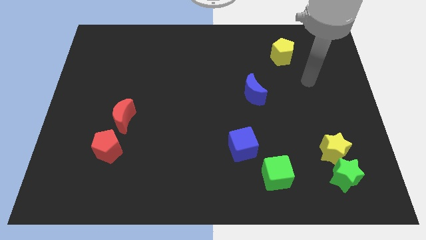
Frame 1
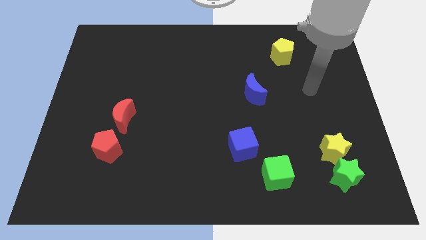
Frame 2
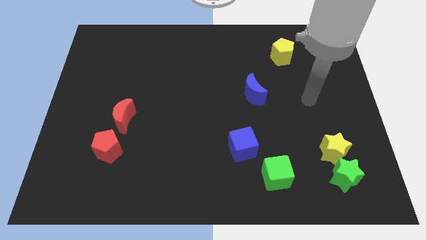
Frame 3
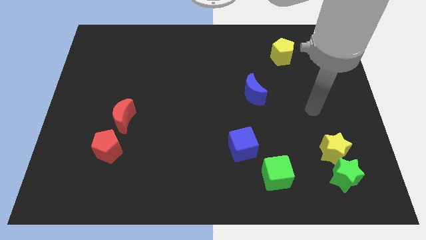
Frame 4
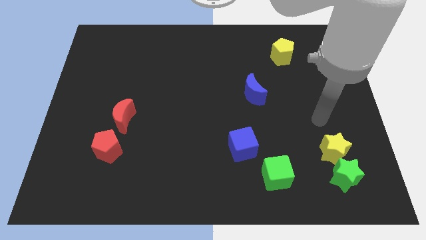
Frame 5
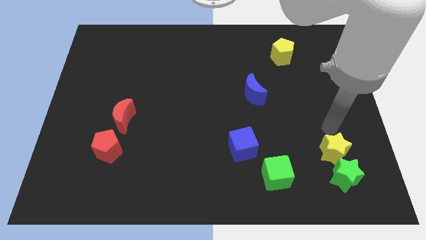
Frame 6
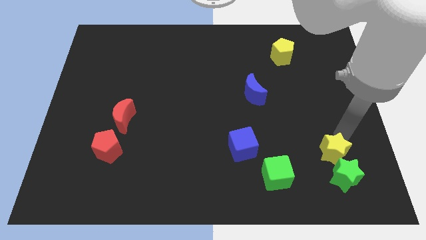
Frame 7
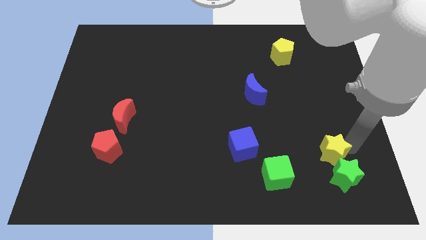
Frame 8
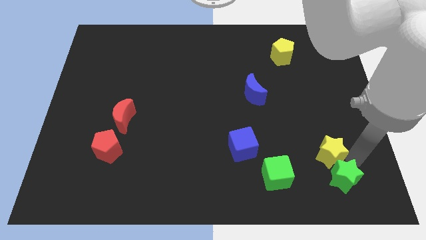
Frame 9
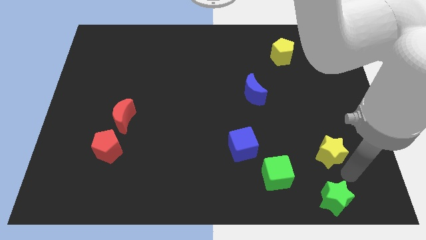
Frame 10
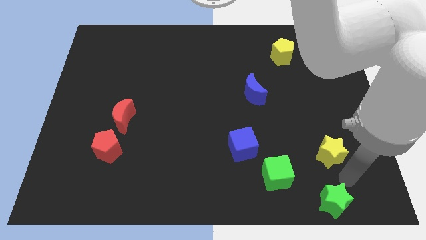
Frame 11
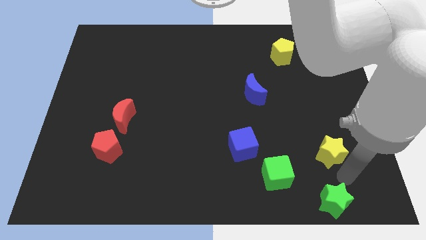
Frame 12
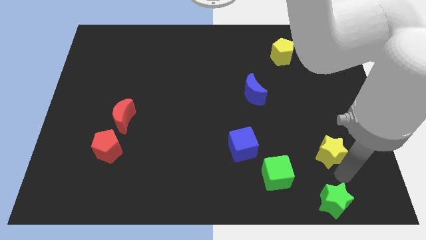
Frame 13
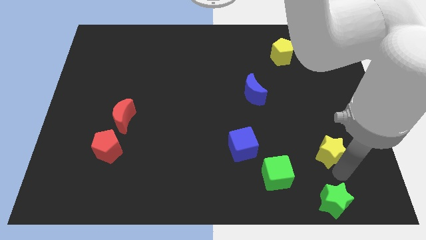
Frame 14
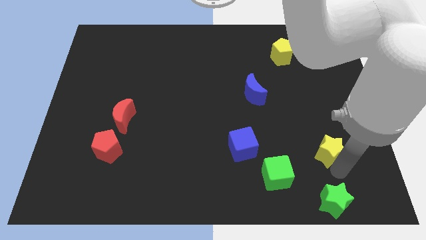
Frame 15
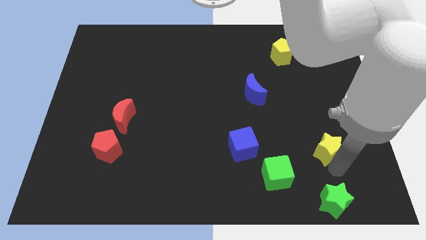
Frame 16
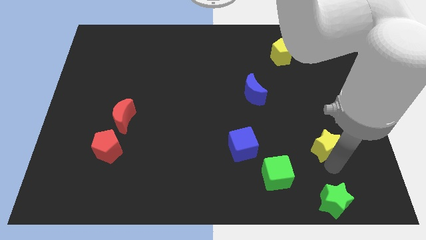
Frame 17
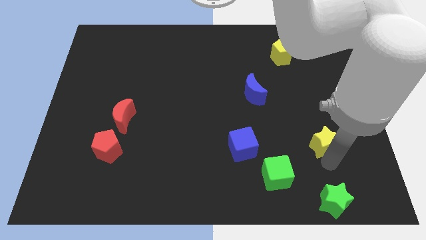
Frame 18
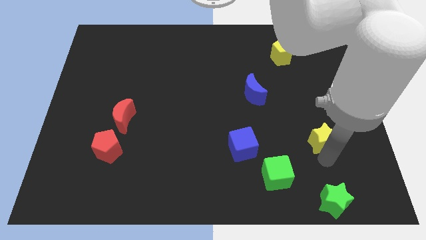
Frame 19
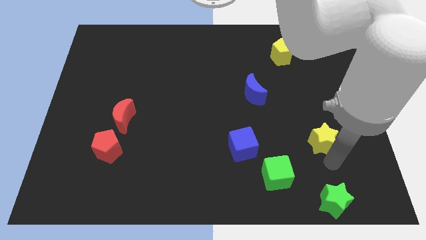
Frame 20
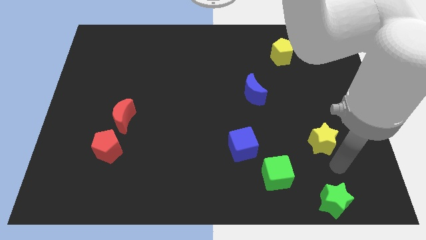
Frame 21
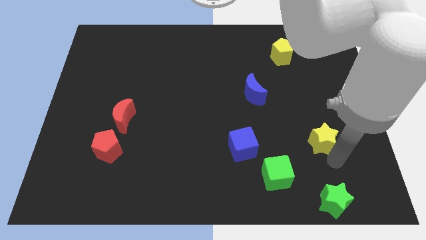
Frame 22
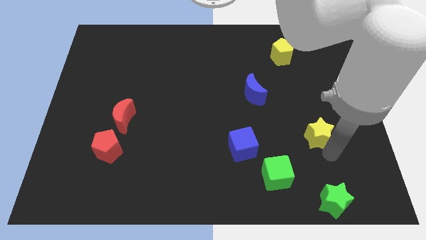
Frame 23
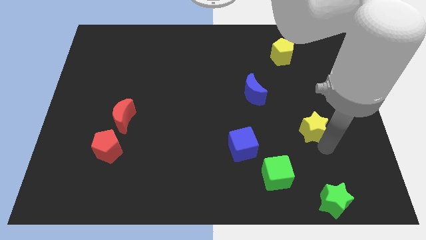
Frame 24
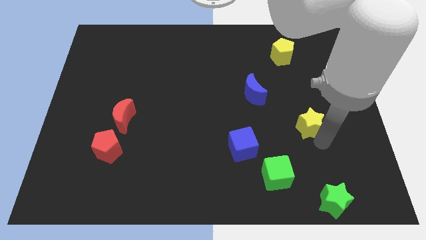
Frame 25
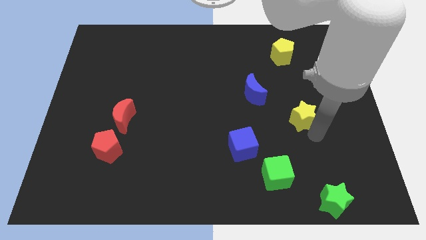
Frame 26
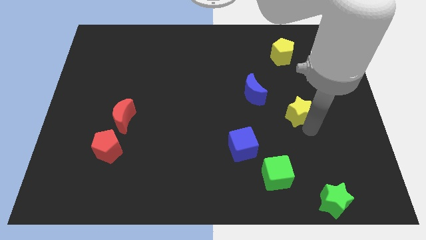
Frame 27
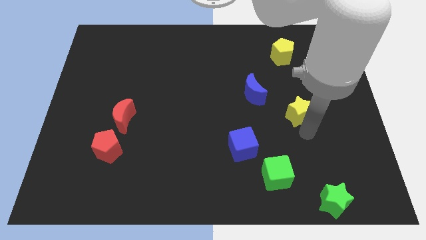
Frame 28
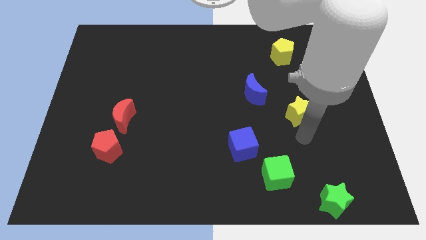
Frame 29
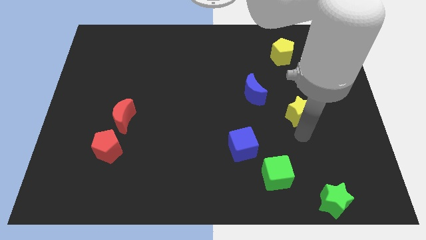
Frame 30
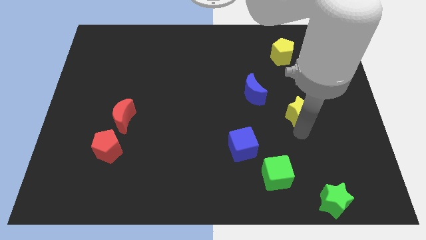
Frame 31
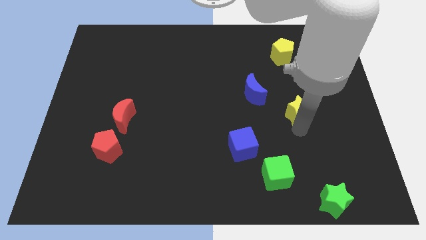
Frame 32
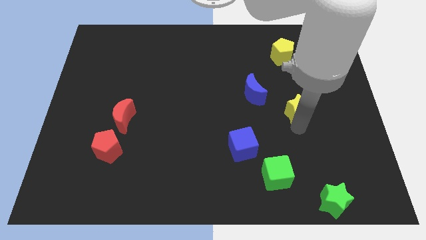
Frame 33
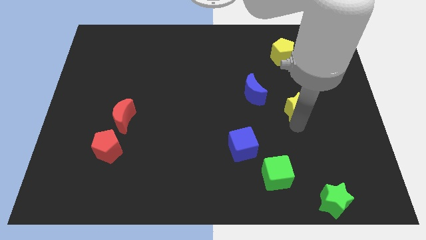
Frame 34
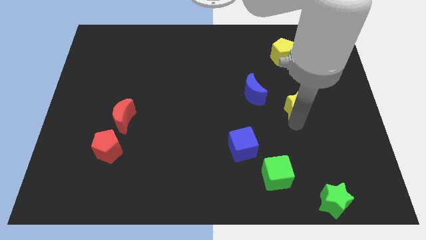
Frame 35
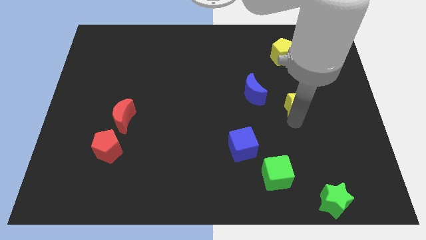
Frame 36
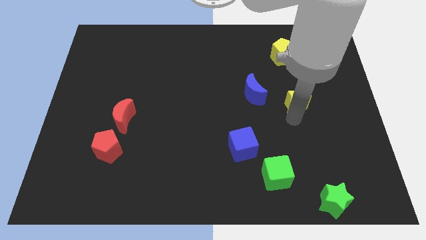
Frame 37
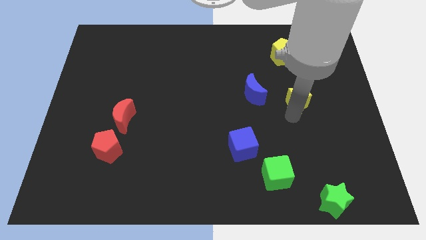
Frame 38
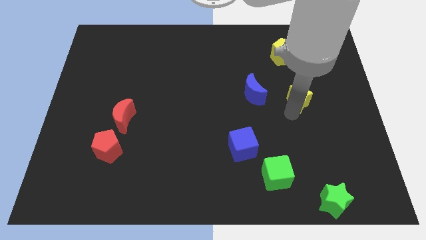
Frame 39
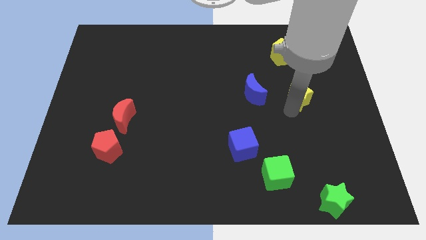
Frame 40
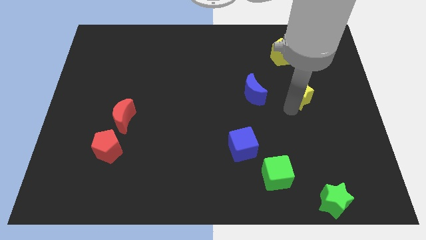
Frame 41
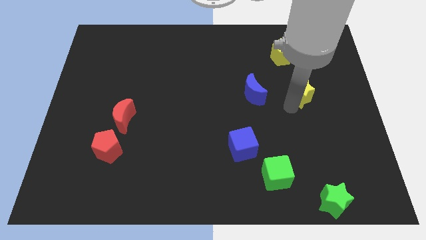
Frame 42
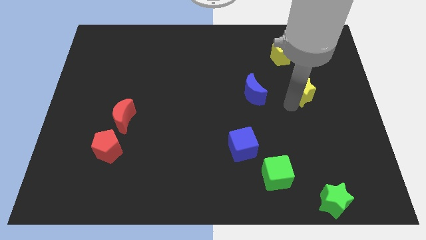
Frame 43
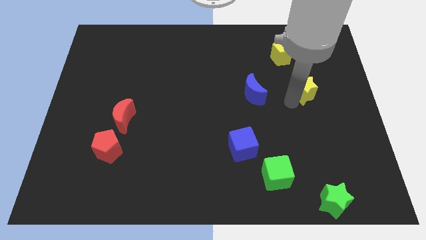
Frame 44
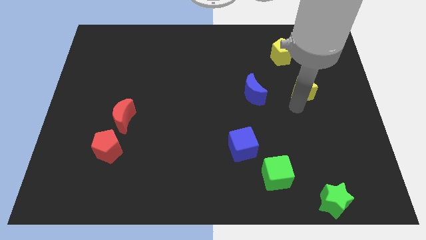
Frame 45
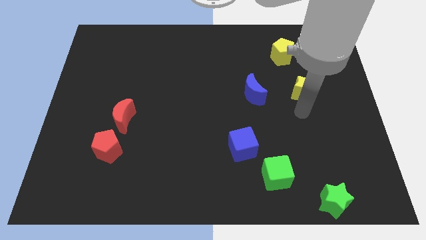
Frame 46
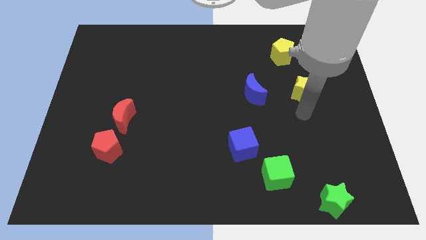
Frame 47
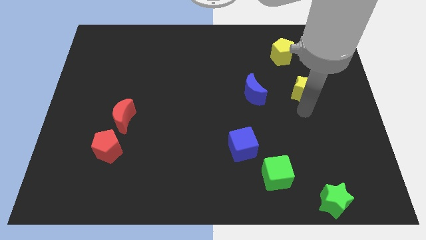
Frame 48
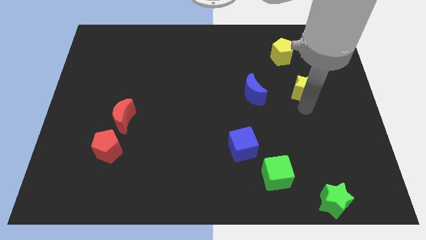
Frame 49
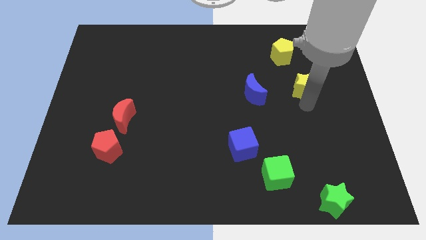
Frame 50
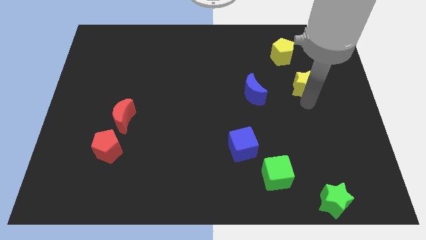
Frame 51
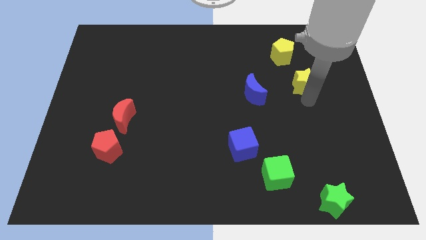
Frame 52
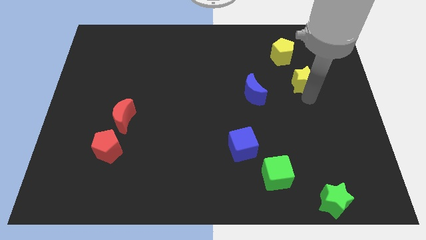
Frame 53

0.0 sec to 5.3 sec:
slide the yellow star diagonally down and to the right of the yellow pentagon

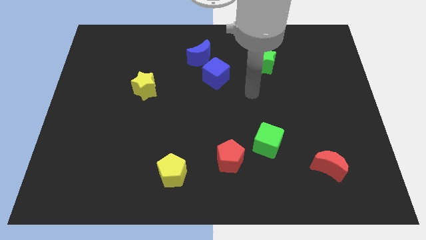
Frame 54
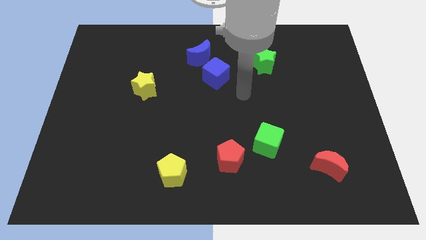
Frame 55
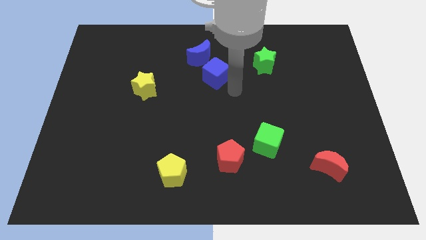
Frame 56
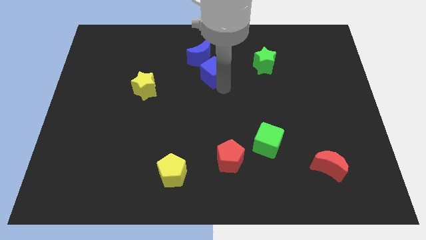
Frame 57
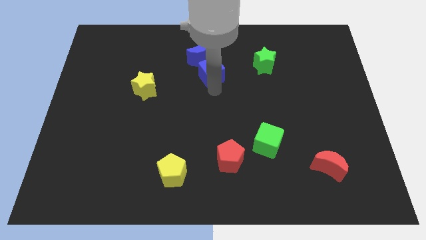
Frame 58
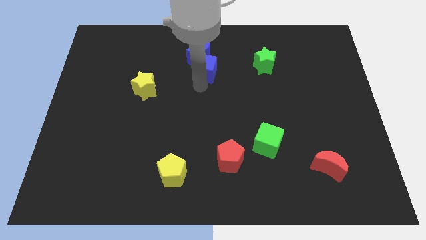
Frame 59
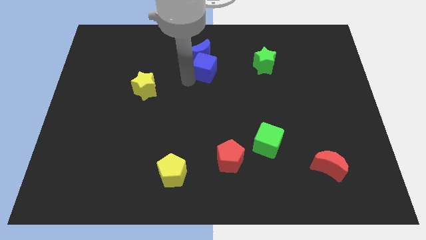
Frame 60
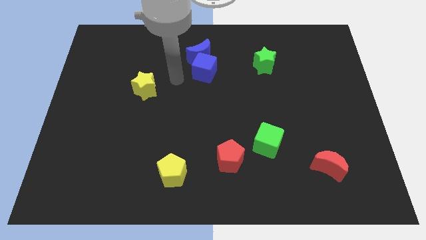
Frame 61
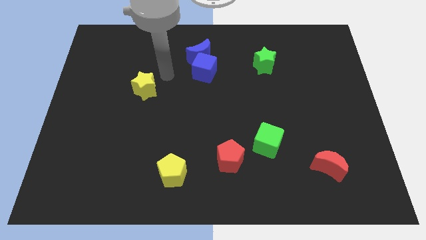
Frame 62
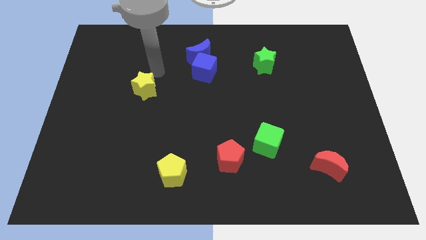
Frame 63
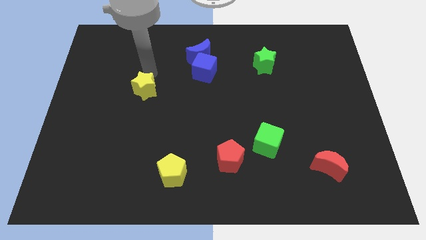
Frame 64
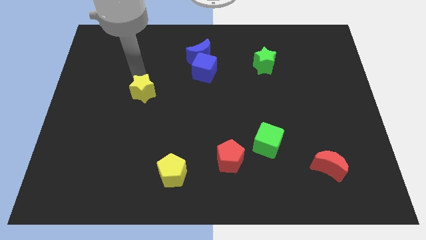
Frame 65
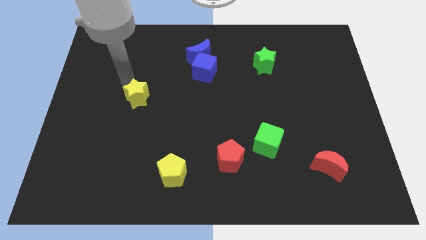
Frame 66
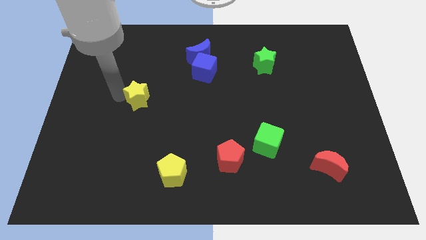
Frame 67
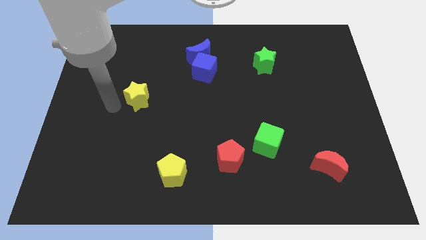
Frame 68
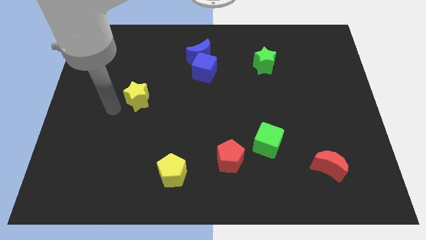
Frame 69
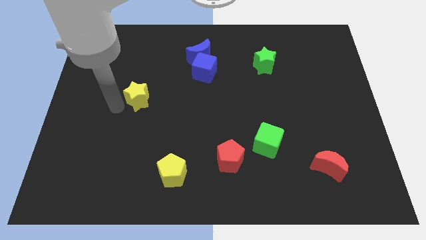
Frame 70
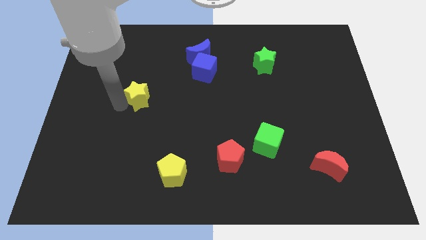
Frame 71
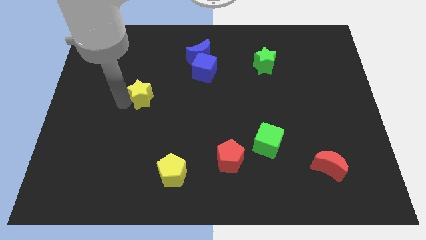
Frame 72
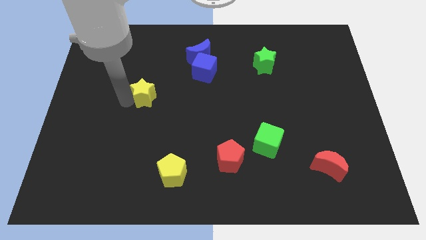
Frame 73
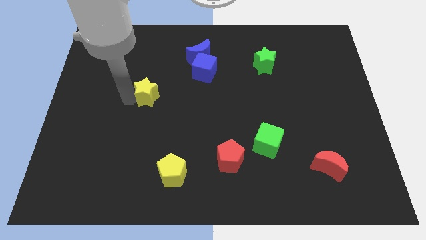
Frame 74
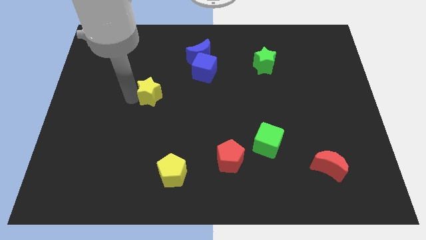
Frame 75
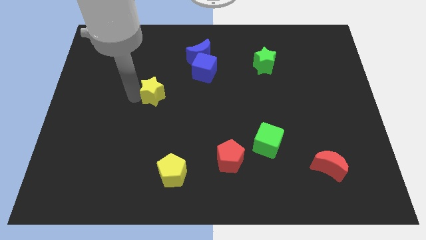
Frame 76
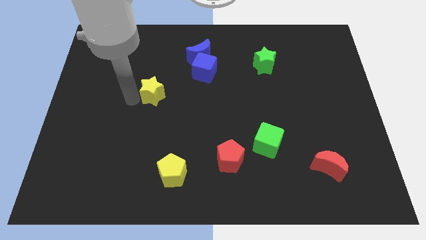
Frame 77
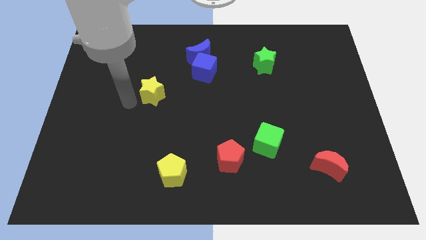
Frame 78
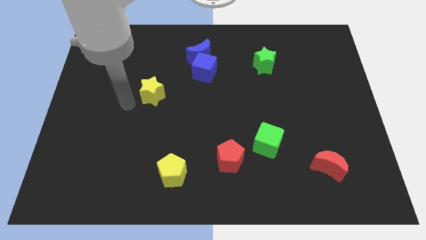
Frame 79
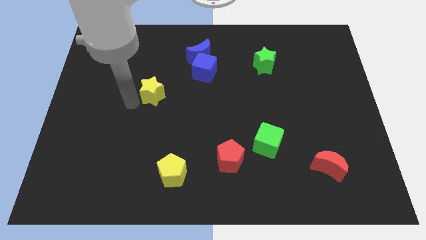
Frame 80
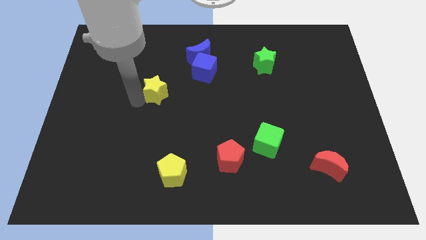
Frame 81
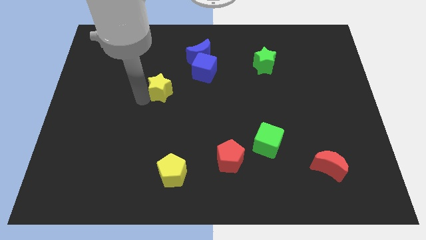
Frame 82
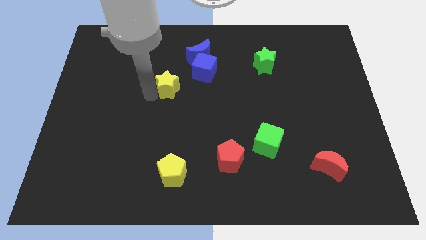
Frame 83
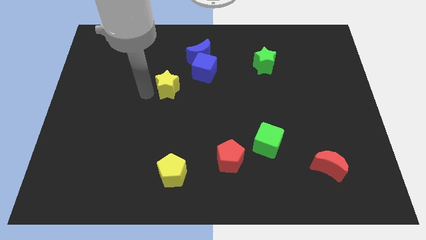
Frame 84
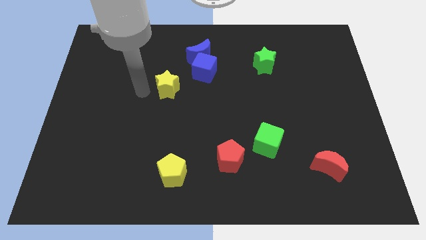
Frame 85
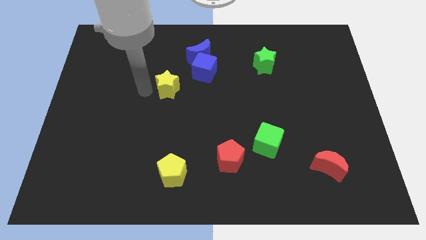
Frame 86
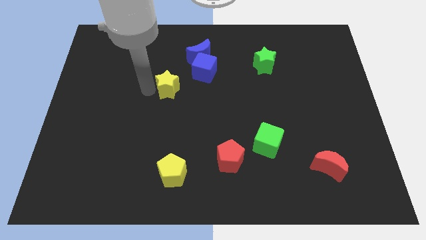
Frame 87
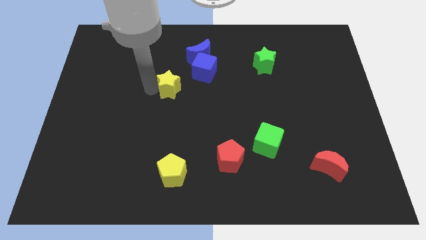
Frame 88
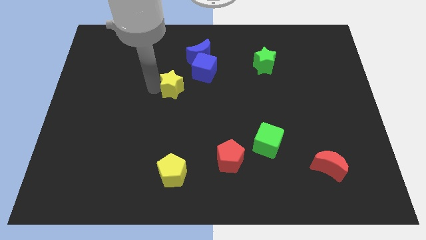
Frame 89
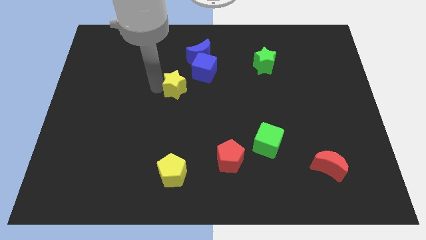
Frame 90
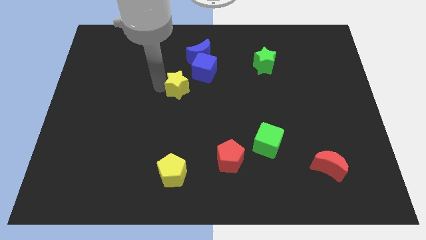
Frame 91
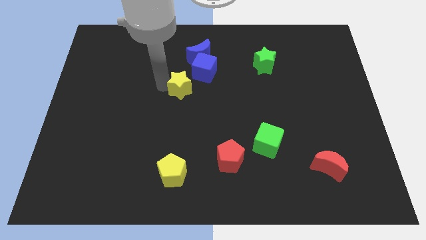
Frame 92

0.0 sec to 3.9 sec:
put the yellow star below the blue moon
